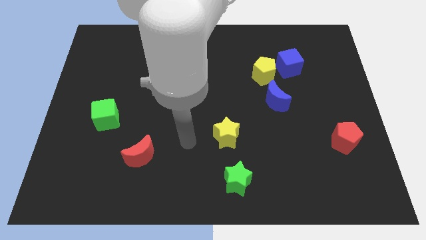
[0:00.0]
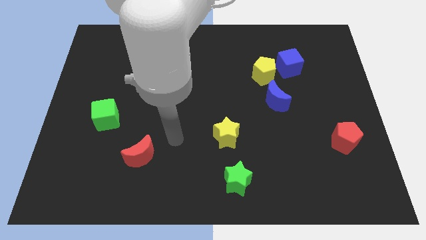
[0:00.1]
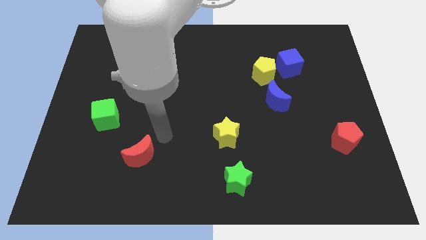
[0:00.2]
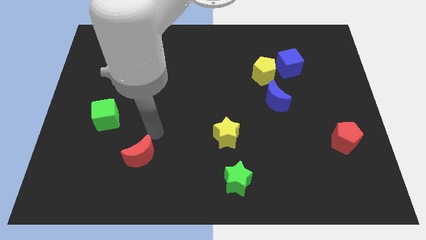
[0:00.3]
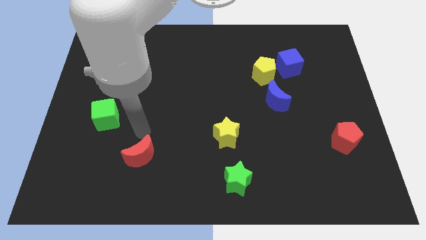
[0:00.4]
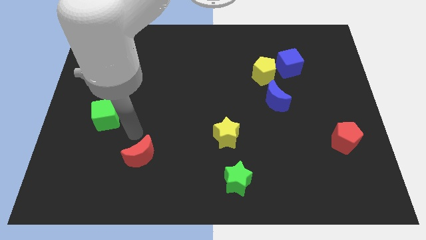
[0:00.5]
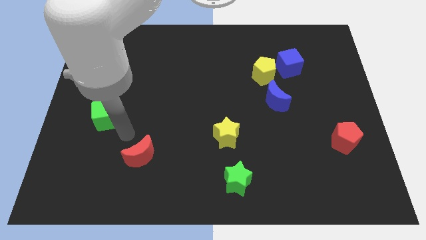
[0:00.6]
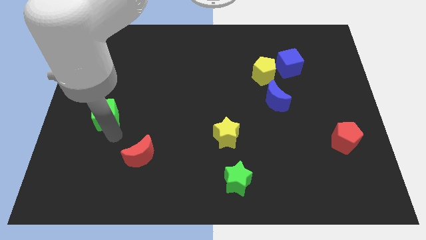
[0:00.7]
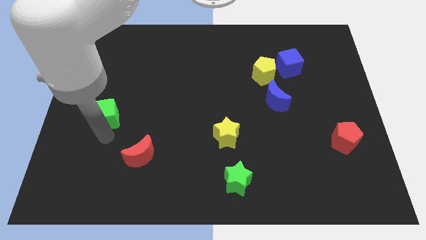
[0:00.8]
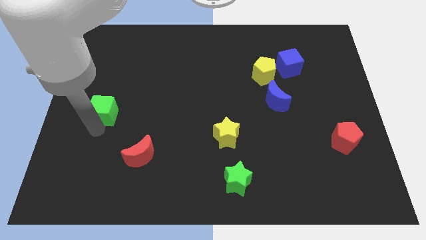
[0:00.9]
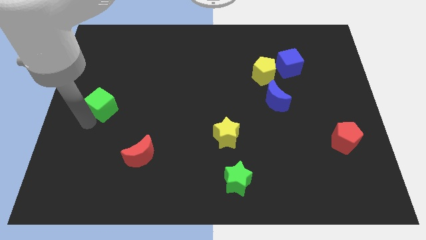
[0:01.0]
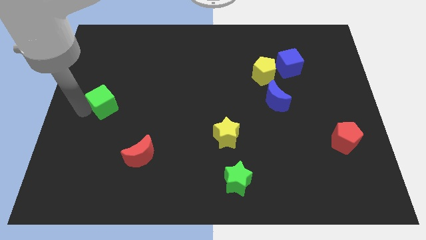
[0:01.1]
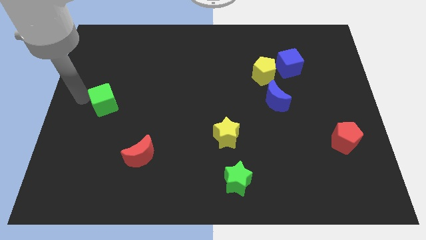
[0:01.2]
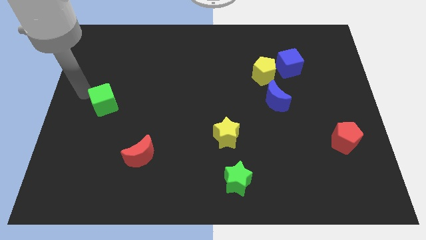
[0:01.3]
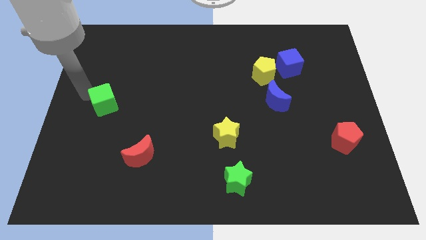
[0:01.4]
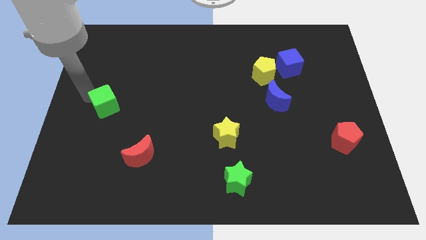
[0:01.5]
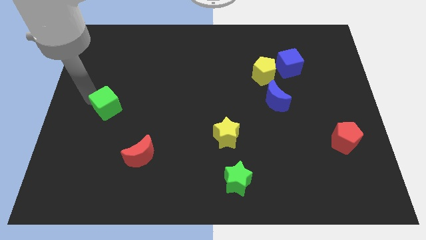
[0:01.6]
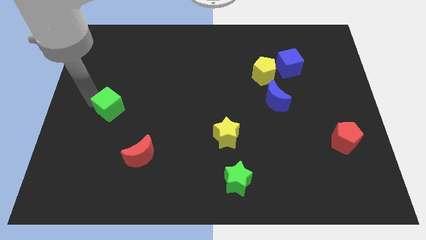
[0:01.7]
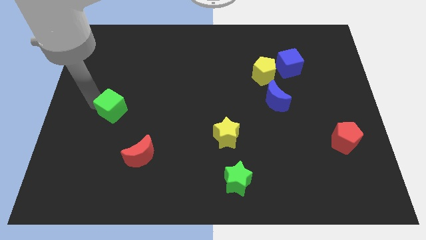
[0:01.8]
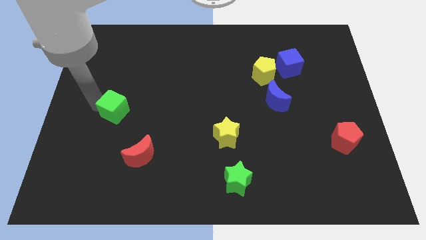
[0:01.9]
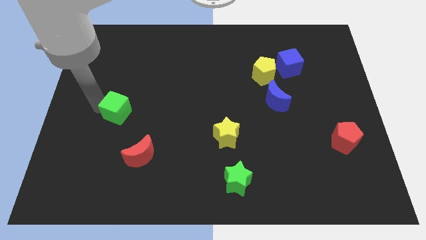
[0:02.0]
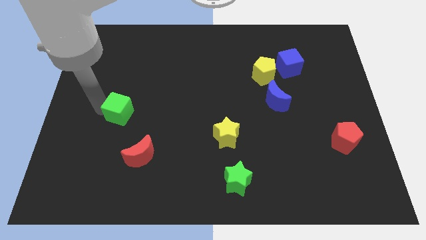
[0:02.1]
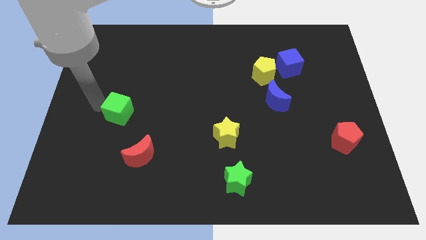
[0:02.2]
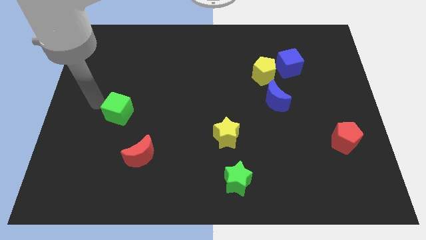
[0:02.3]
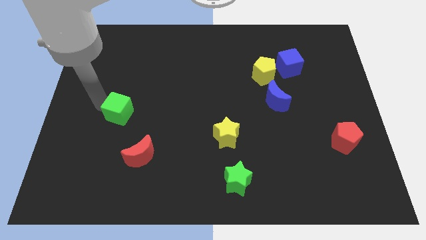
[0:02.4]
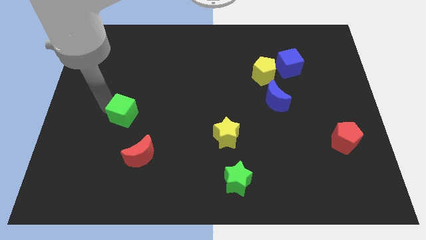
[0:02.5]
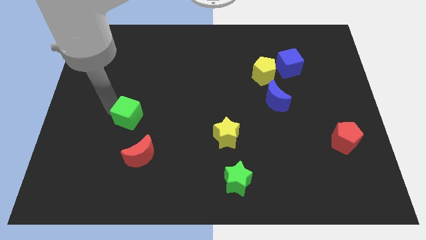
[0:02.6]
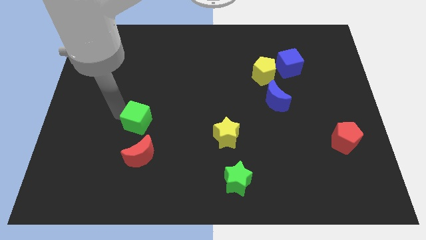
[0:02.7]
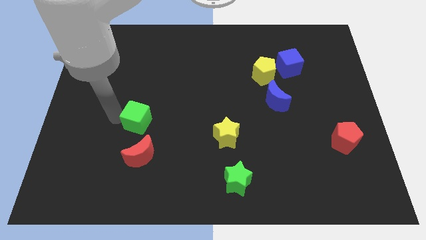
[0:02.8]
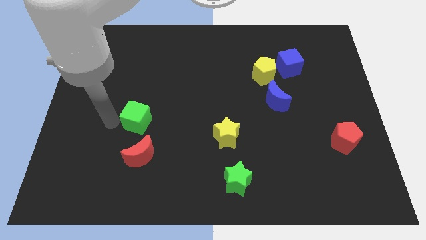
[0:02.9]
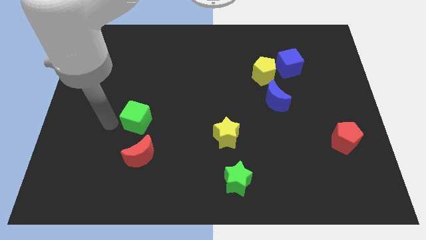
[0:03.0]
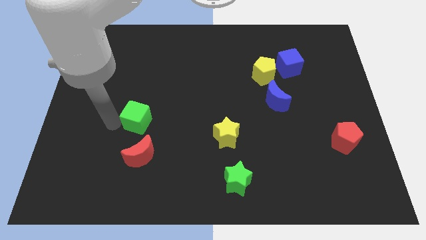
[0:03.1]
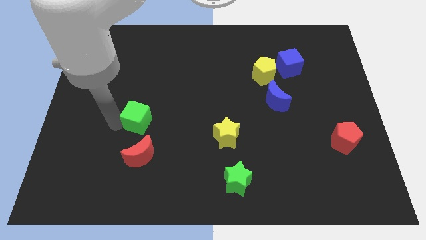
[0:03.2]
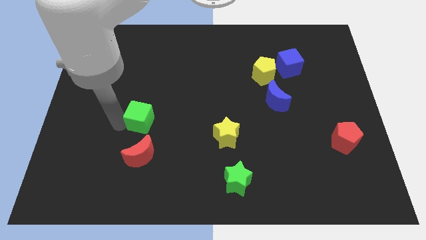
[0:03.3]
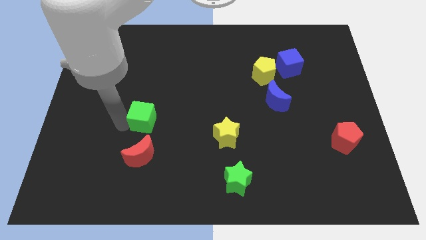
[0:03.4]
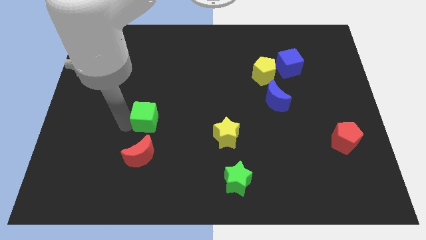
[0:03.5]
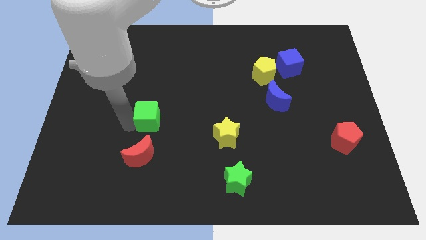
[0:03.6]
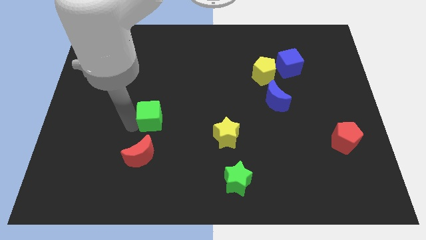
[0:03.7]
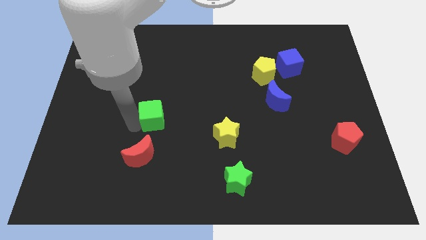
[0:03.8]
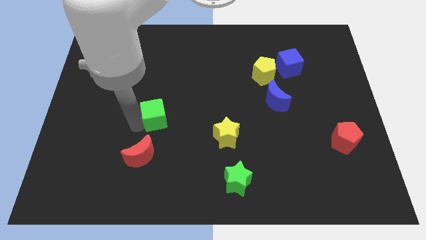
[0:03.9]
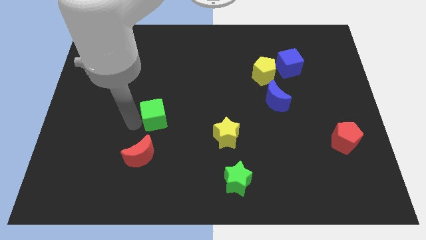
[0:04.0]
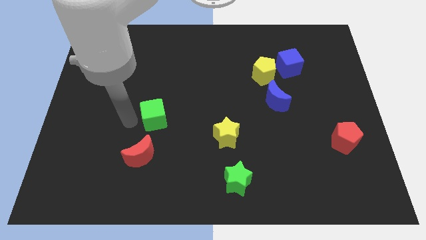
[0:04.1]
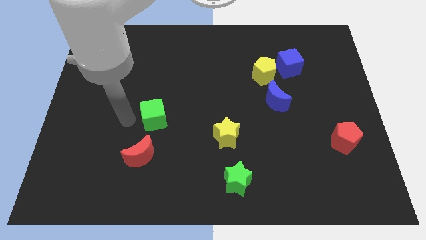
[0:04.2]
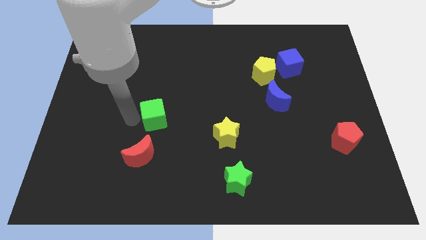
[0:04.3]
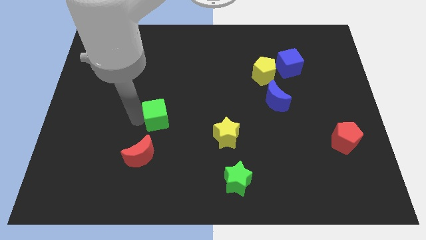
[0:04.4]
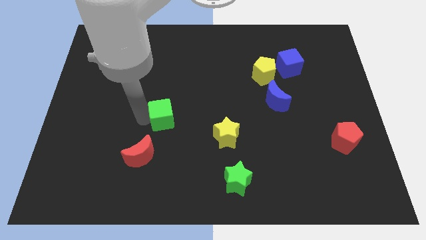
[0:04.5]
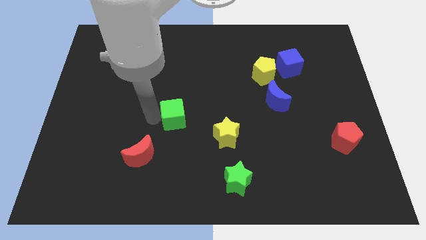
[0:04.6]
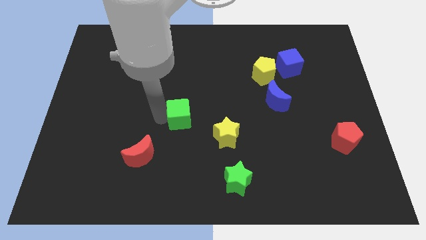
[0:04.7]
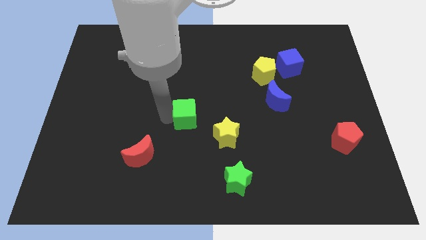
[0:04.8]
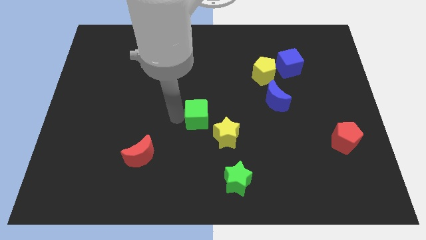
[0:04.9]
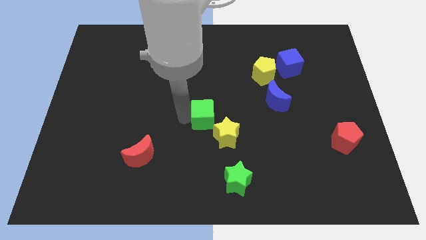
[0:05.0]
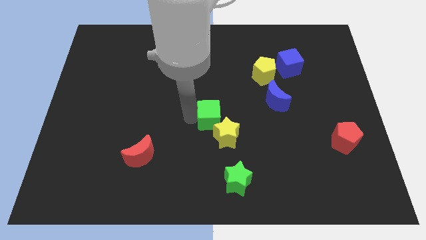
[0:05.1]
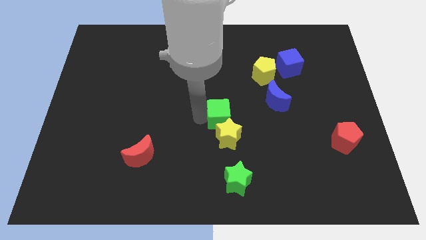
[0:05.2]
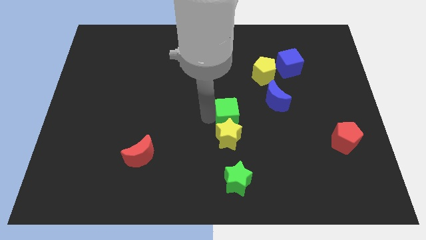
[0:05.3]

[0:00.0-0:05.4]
put the green cube diagonally up and to the right of the yellow star

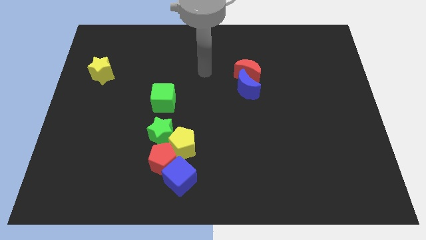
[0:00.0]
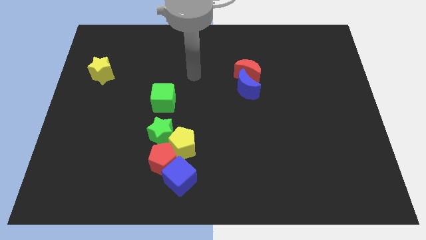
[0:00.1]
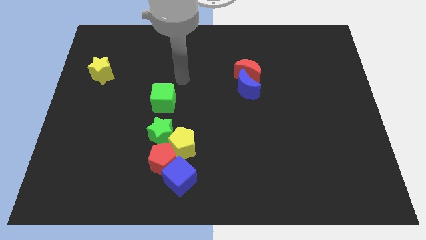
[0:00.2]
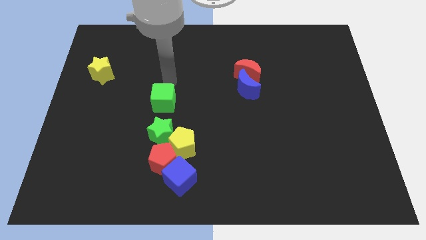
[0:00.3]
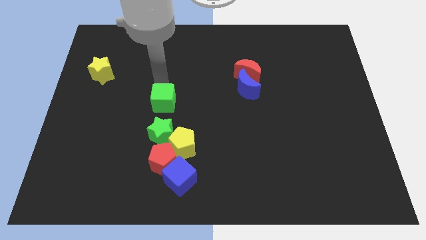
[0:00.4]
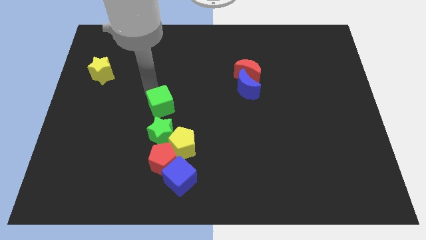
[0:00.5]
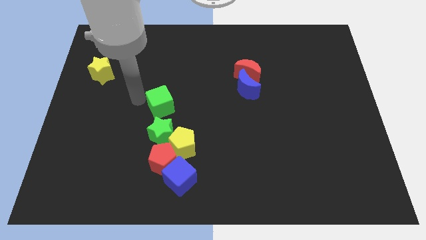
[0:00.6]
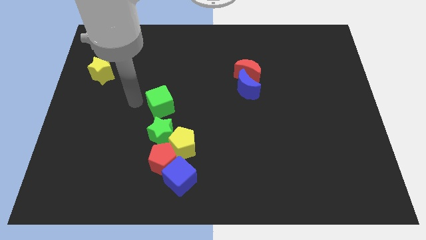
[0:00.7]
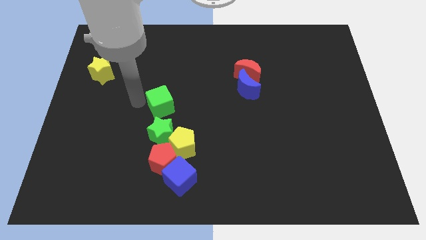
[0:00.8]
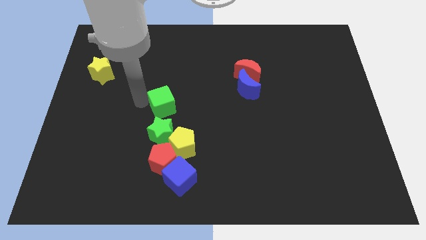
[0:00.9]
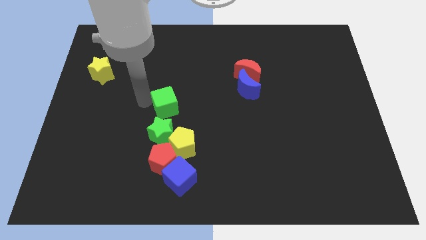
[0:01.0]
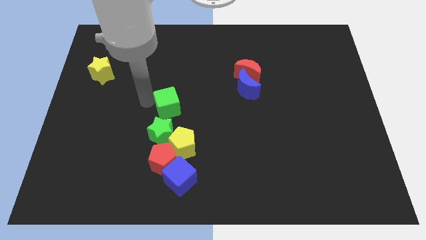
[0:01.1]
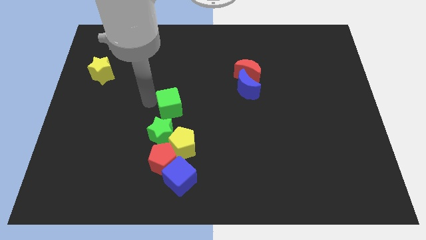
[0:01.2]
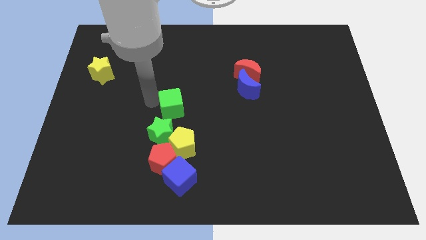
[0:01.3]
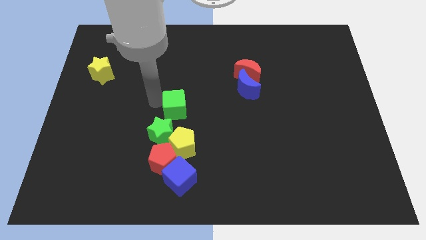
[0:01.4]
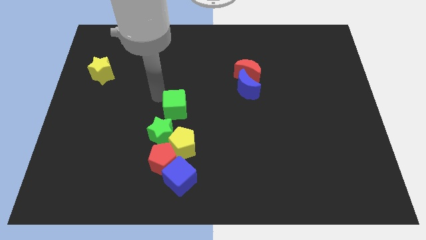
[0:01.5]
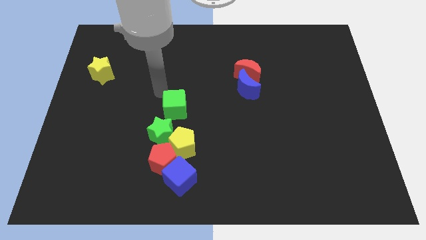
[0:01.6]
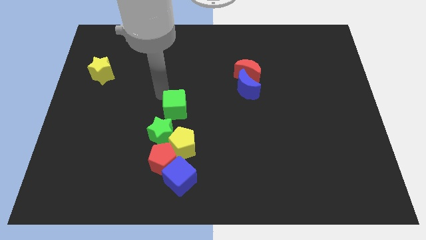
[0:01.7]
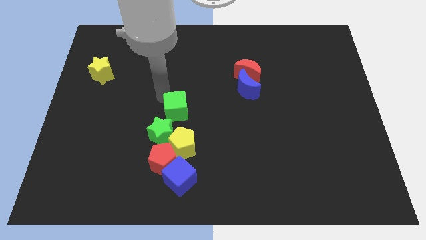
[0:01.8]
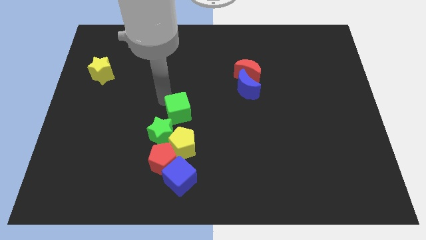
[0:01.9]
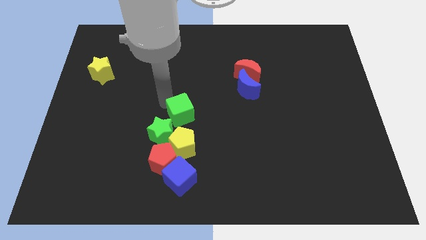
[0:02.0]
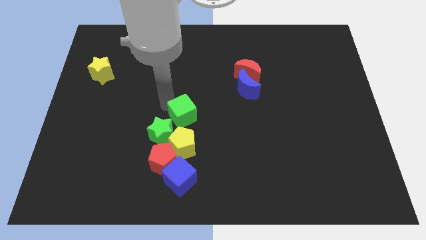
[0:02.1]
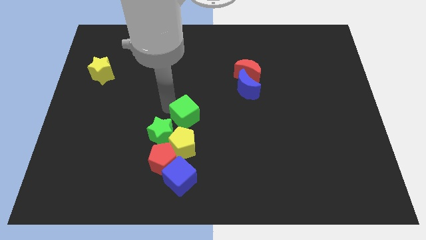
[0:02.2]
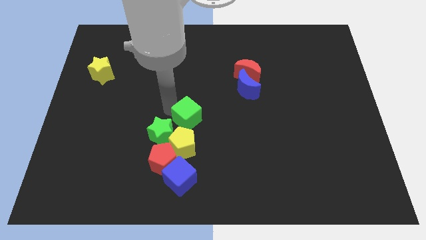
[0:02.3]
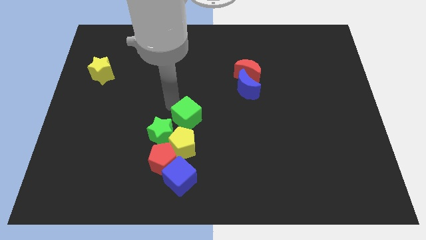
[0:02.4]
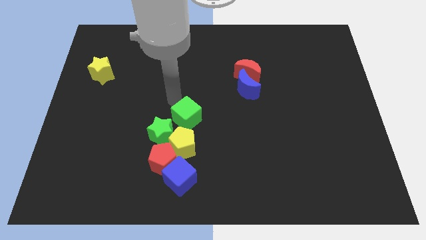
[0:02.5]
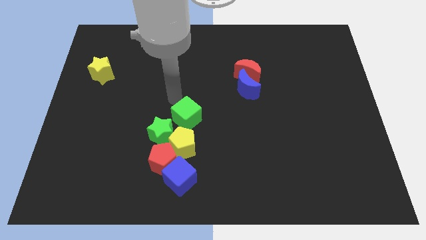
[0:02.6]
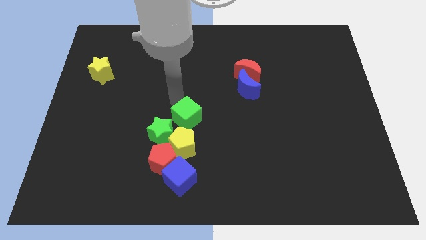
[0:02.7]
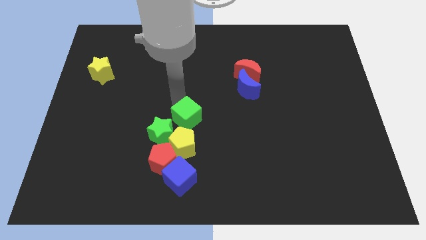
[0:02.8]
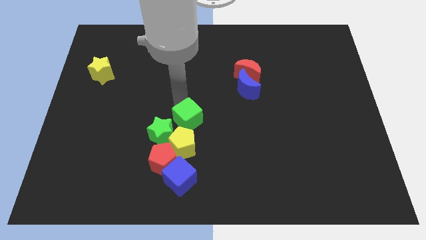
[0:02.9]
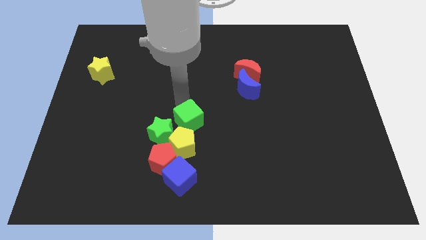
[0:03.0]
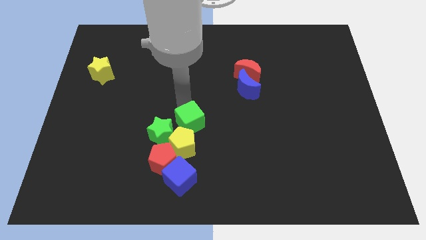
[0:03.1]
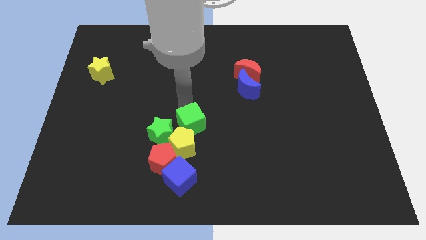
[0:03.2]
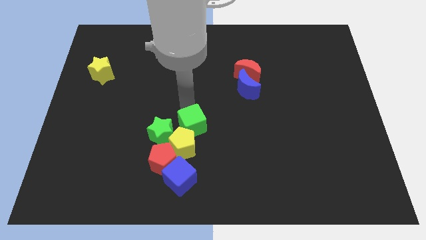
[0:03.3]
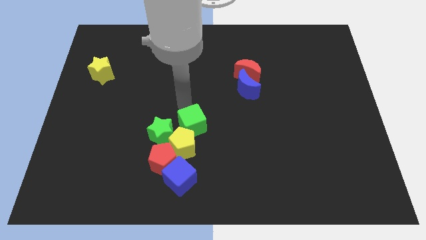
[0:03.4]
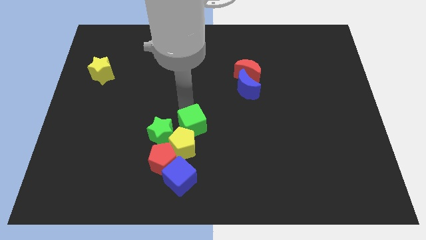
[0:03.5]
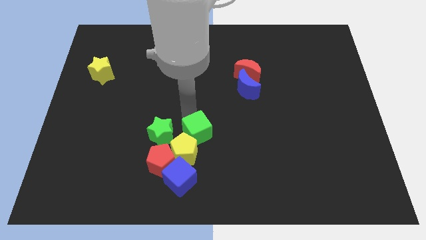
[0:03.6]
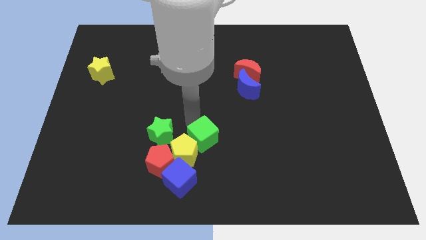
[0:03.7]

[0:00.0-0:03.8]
put the green cube to the top right side of the blue cube
